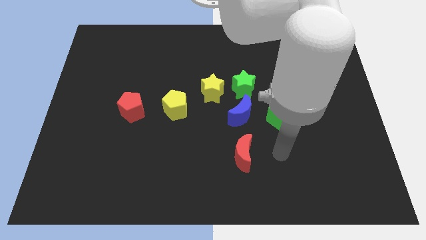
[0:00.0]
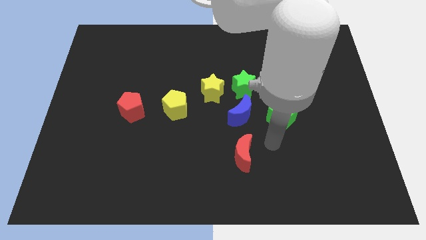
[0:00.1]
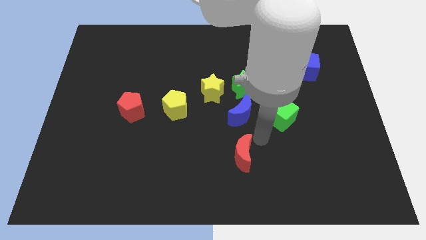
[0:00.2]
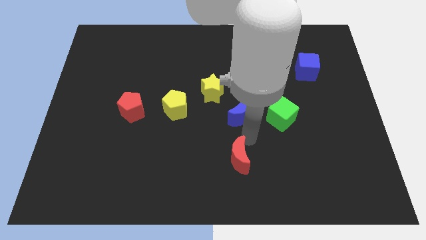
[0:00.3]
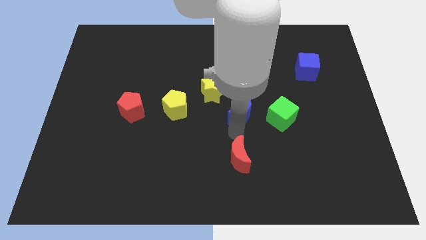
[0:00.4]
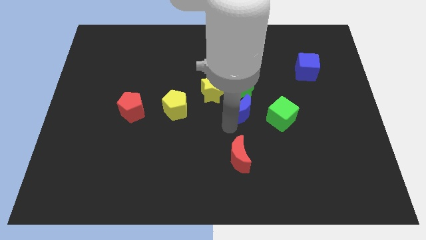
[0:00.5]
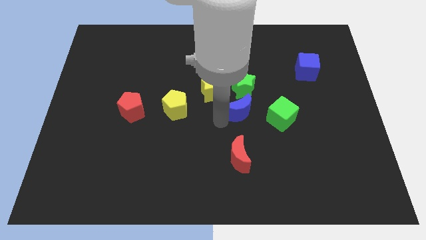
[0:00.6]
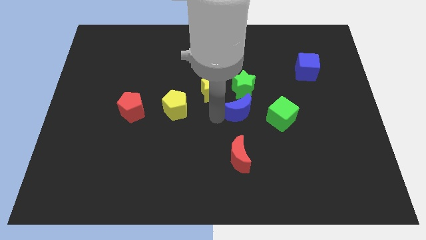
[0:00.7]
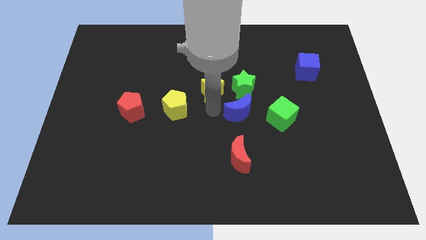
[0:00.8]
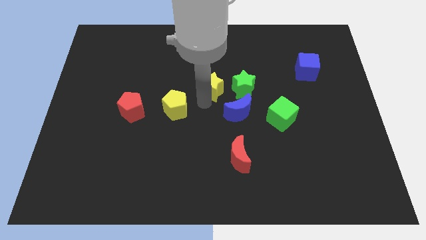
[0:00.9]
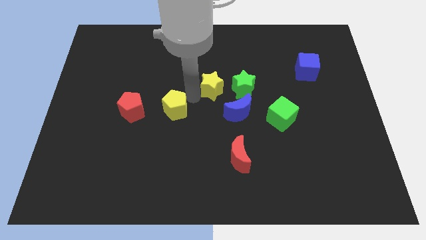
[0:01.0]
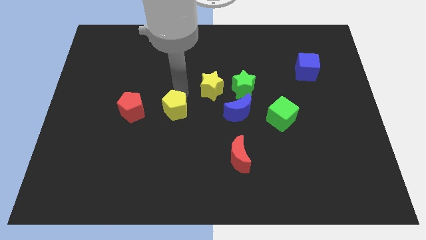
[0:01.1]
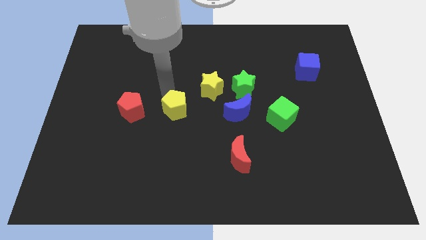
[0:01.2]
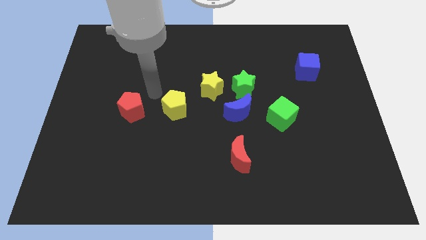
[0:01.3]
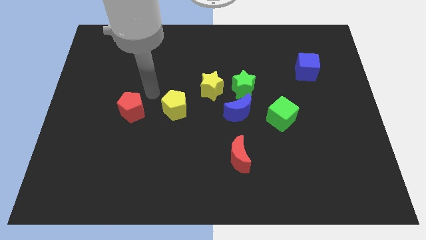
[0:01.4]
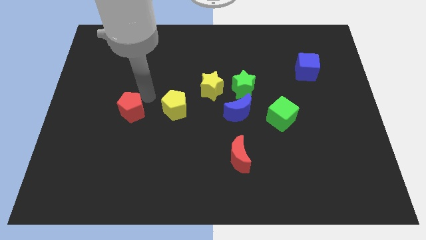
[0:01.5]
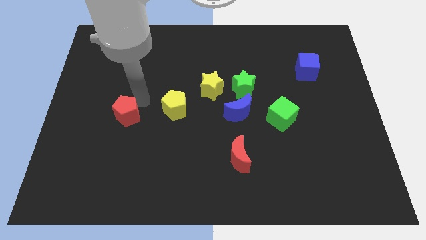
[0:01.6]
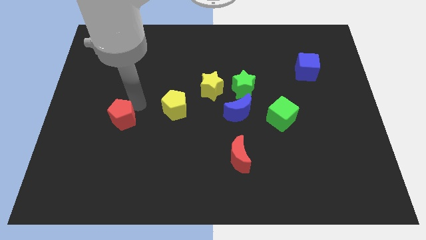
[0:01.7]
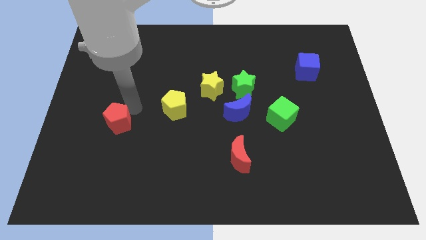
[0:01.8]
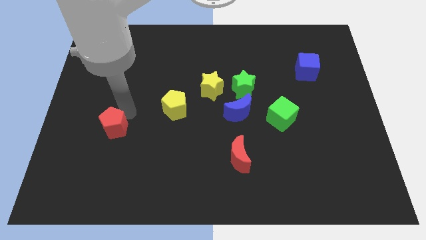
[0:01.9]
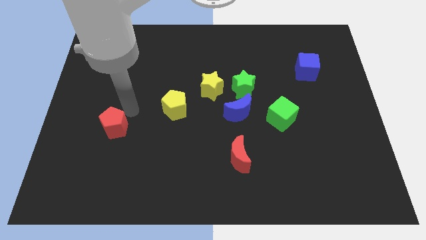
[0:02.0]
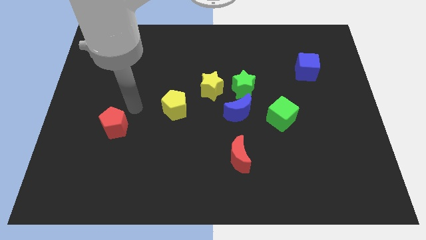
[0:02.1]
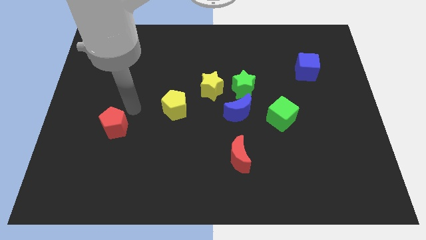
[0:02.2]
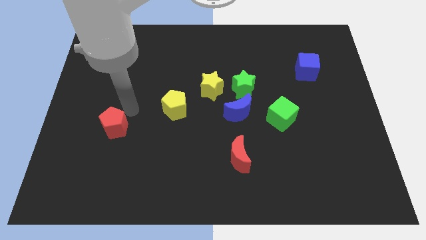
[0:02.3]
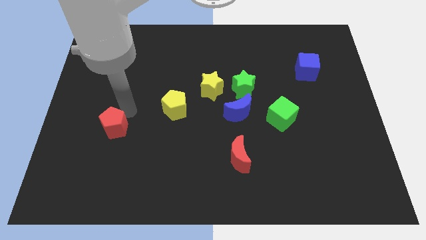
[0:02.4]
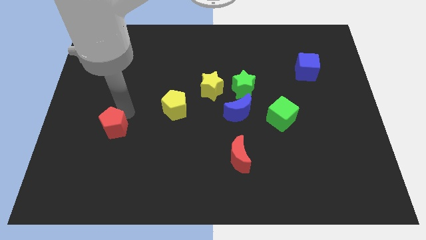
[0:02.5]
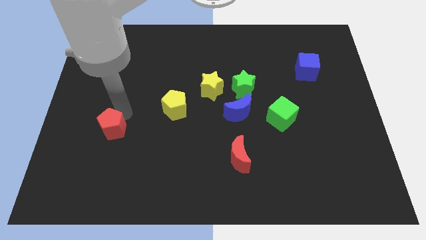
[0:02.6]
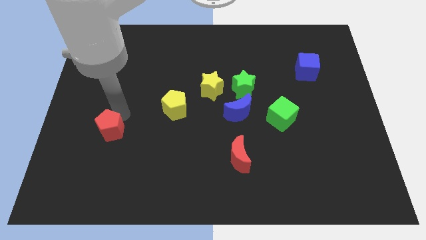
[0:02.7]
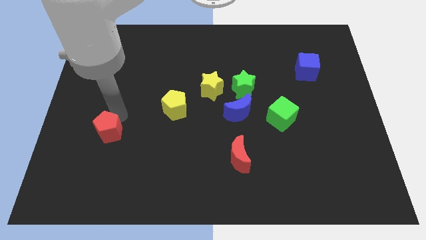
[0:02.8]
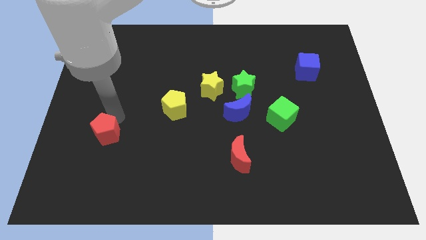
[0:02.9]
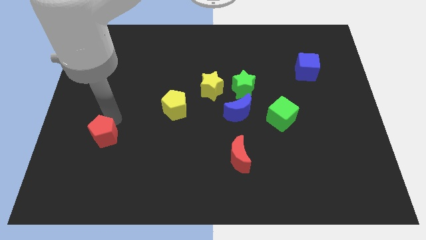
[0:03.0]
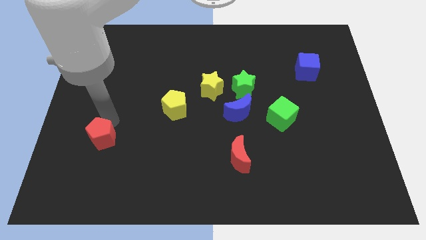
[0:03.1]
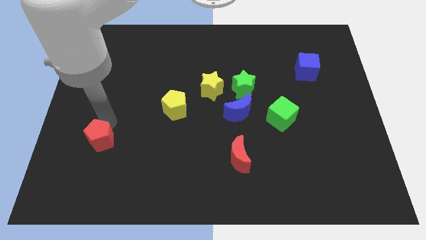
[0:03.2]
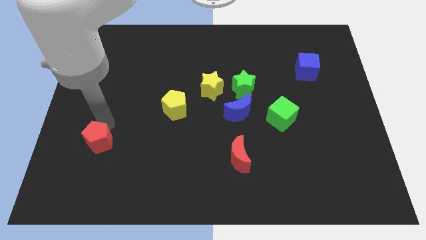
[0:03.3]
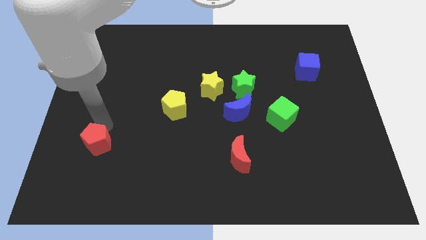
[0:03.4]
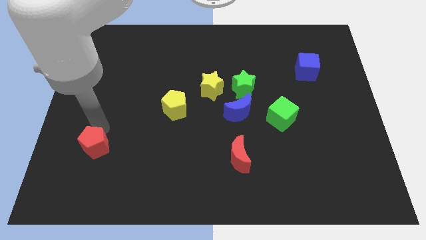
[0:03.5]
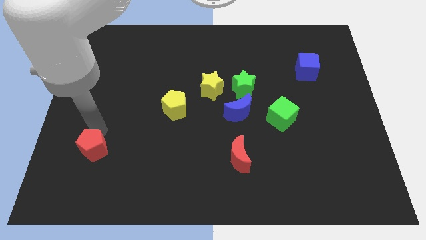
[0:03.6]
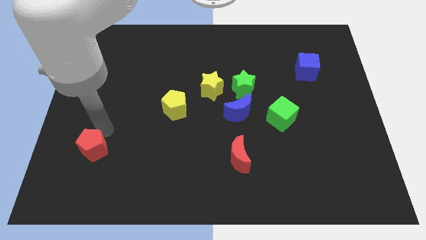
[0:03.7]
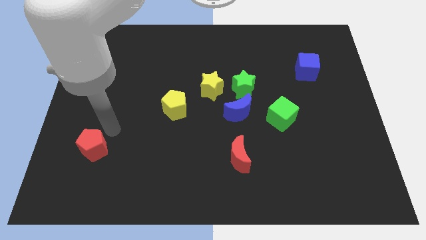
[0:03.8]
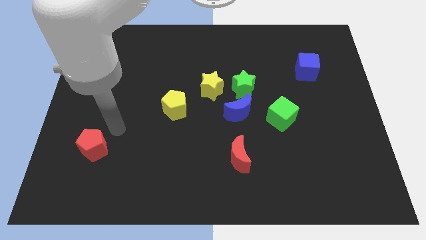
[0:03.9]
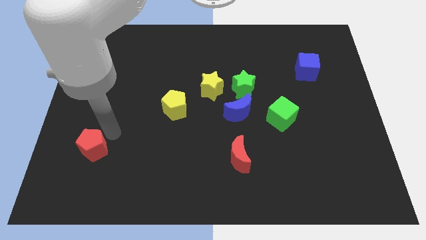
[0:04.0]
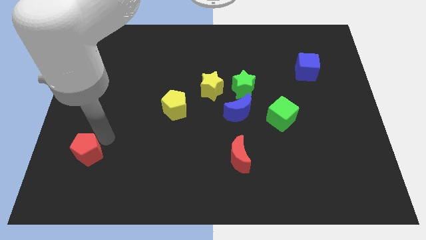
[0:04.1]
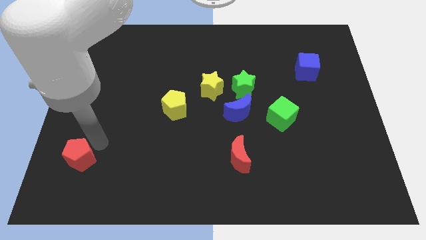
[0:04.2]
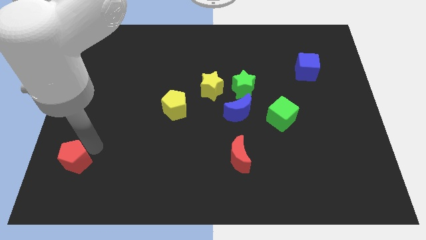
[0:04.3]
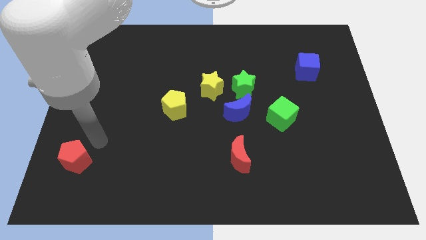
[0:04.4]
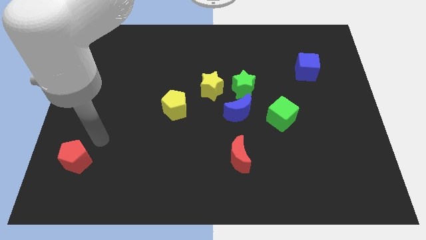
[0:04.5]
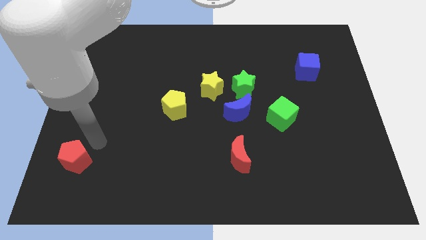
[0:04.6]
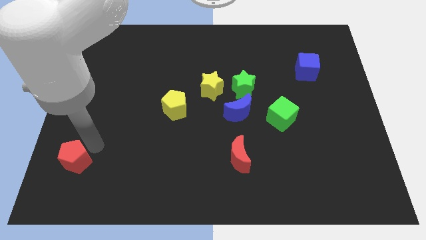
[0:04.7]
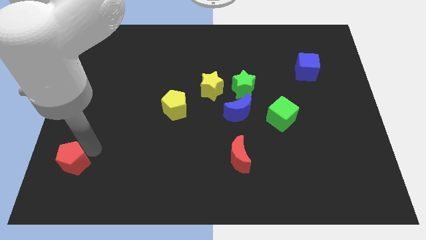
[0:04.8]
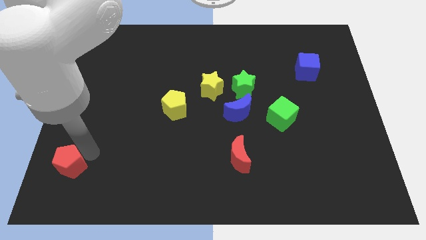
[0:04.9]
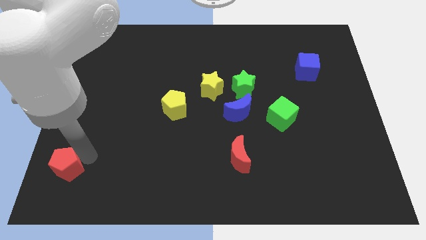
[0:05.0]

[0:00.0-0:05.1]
push the red pentagon to the bottom left

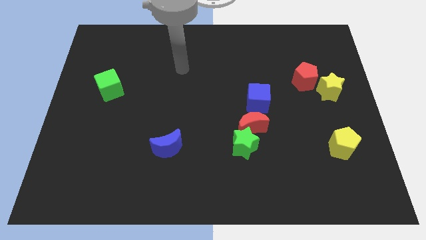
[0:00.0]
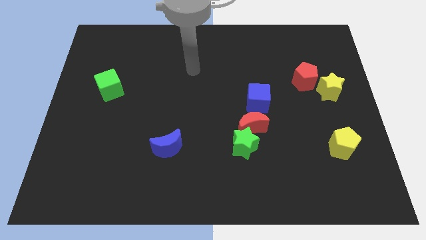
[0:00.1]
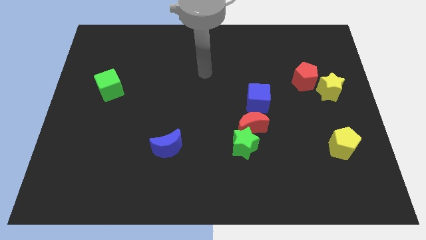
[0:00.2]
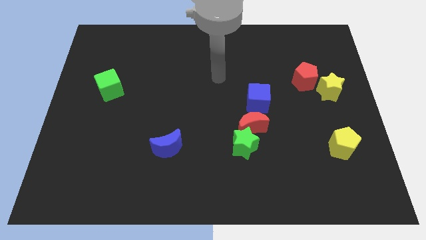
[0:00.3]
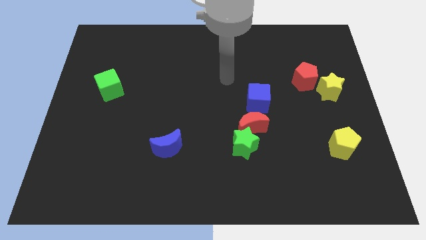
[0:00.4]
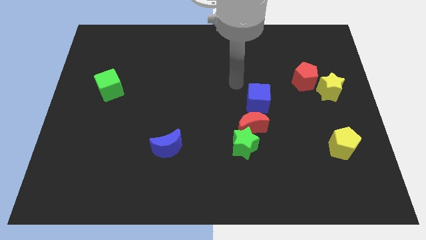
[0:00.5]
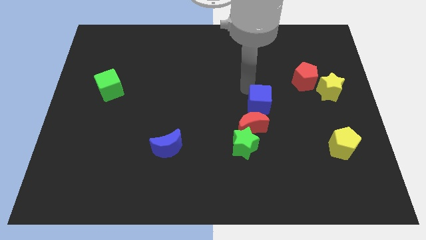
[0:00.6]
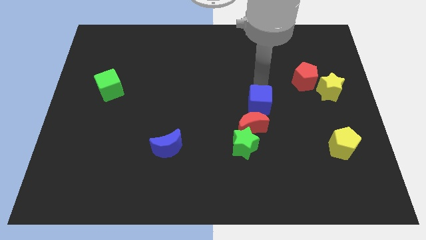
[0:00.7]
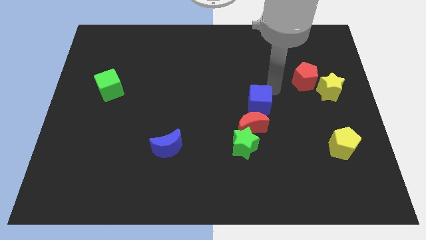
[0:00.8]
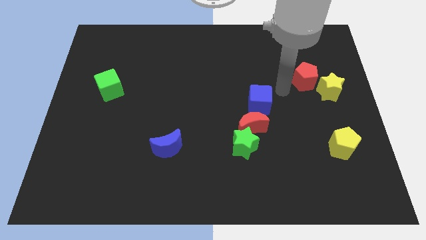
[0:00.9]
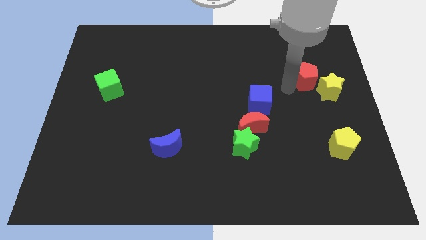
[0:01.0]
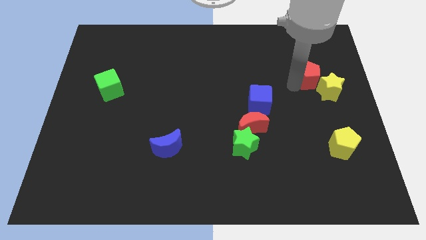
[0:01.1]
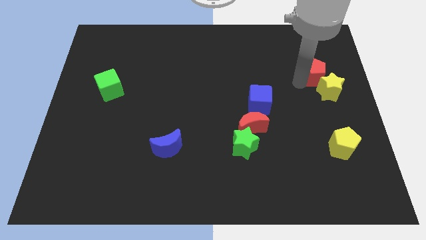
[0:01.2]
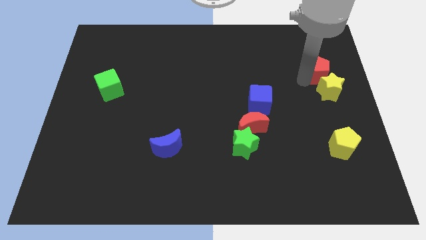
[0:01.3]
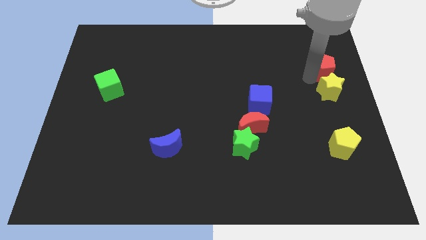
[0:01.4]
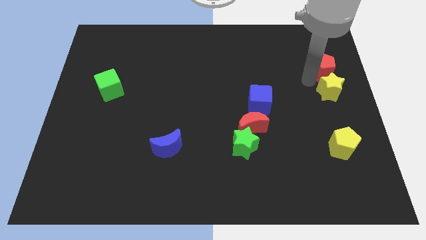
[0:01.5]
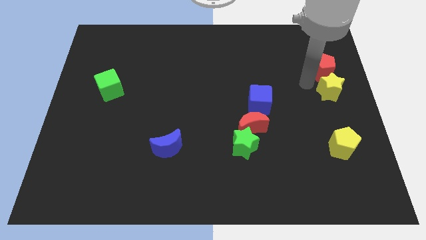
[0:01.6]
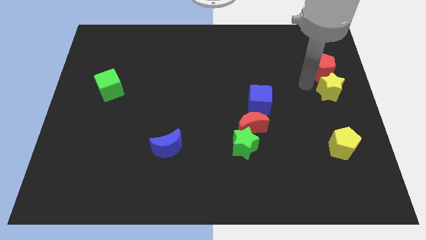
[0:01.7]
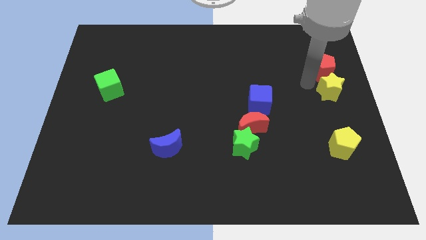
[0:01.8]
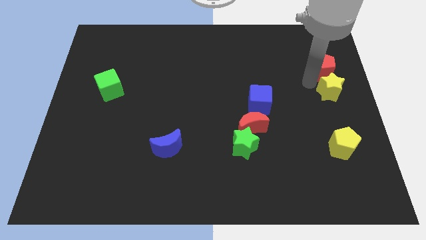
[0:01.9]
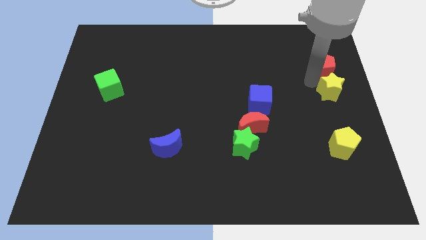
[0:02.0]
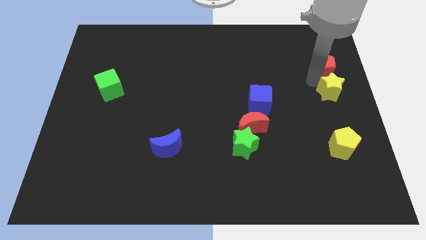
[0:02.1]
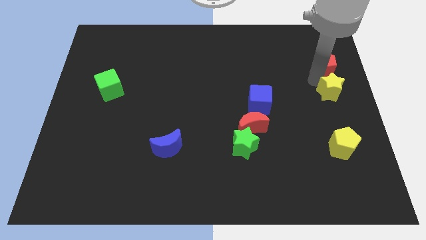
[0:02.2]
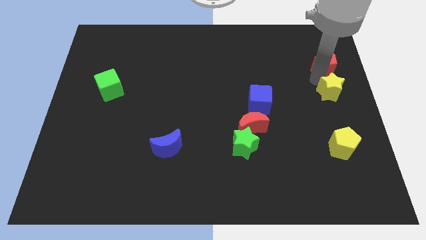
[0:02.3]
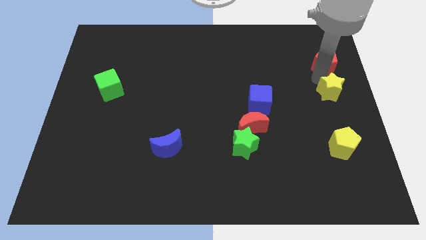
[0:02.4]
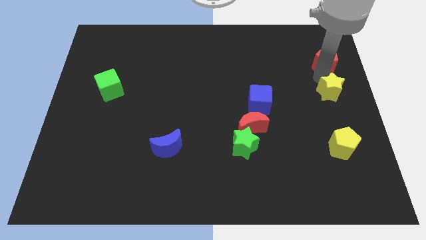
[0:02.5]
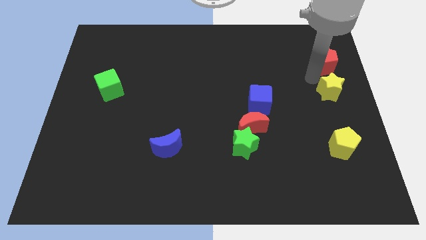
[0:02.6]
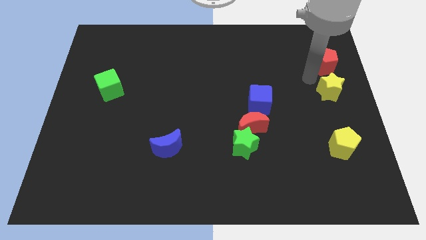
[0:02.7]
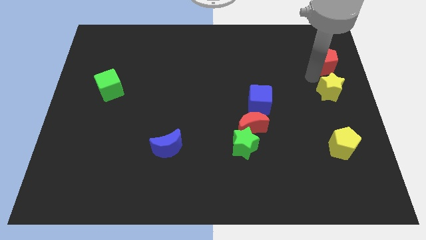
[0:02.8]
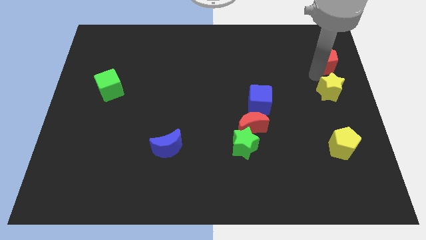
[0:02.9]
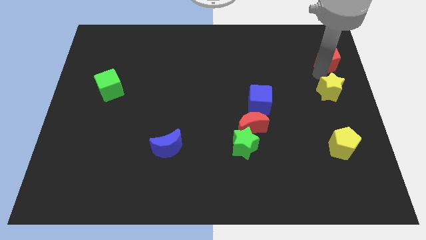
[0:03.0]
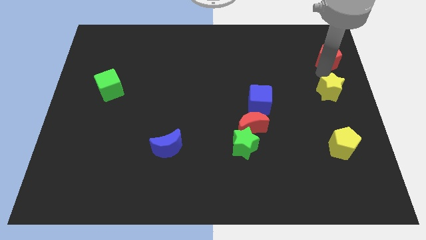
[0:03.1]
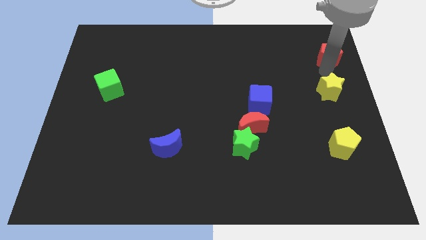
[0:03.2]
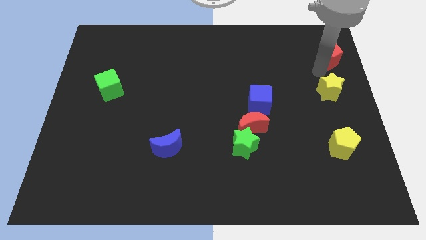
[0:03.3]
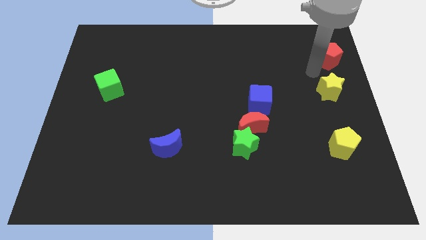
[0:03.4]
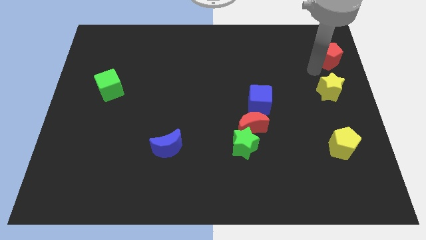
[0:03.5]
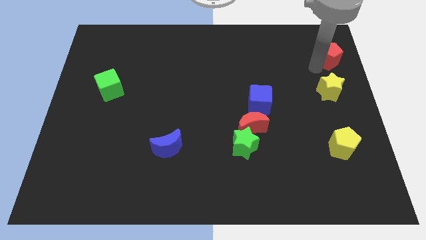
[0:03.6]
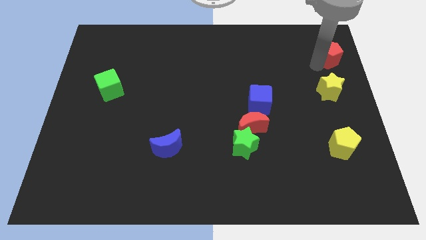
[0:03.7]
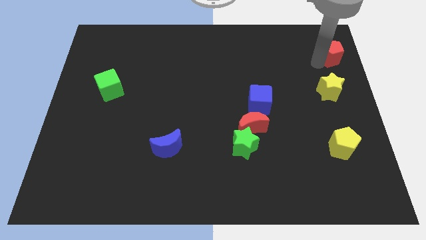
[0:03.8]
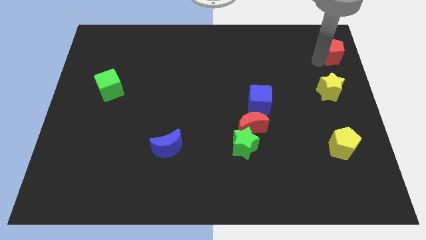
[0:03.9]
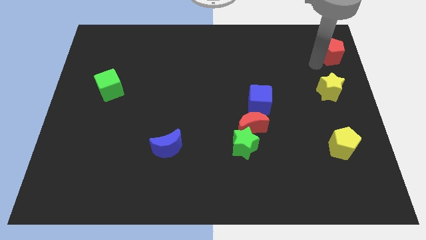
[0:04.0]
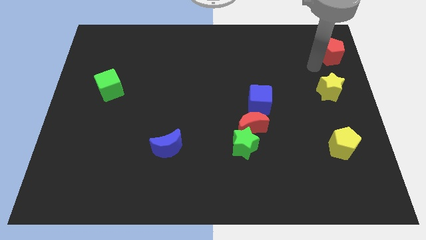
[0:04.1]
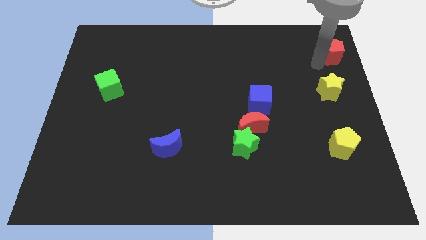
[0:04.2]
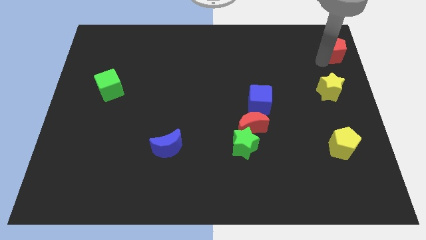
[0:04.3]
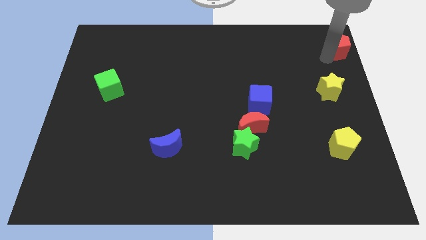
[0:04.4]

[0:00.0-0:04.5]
move the red pentagon to the top right of the board
